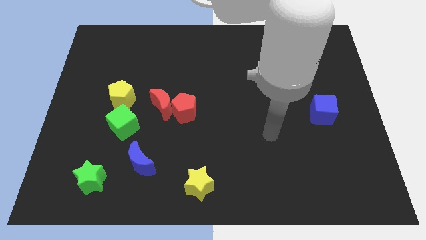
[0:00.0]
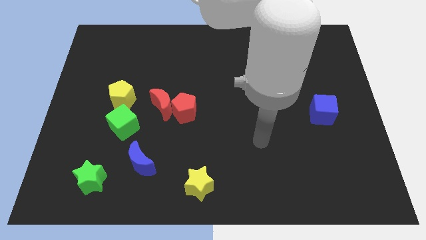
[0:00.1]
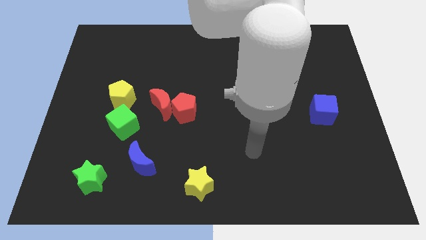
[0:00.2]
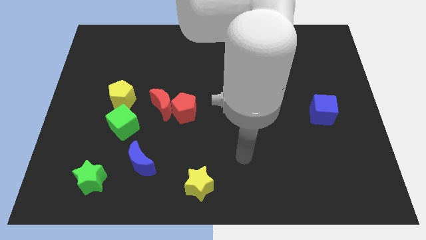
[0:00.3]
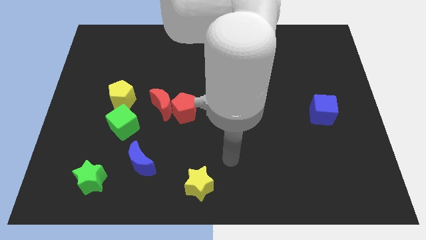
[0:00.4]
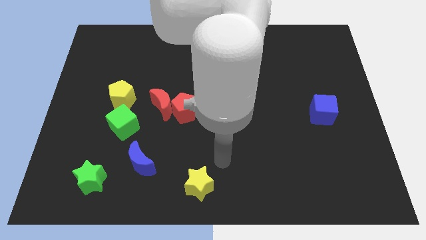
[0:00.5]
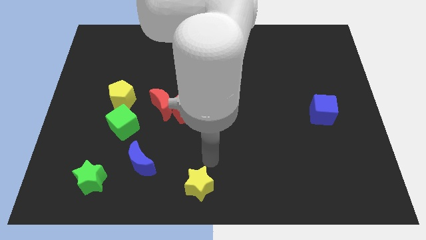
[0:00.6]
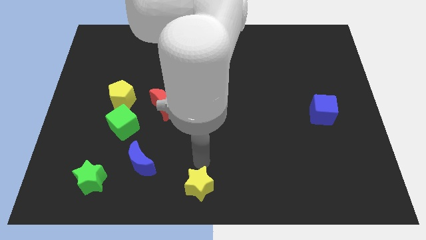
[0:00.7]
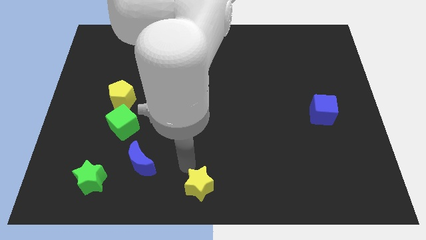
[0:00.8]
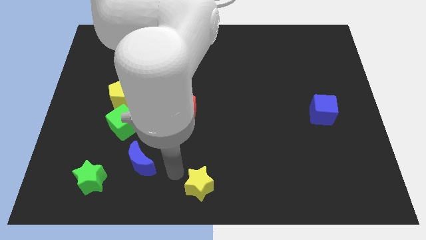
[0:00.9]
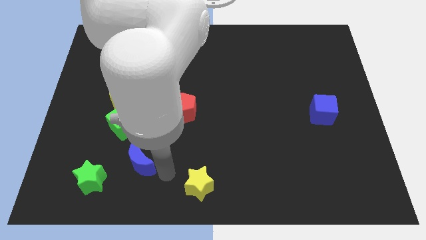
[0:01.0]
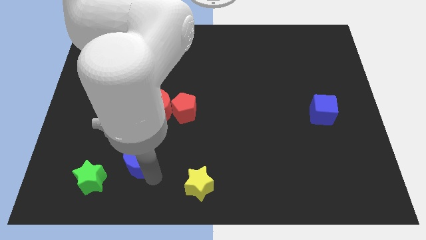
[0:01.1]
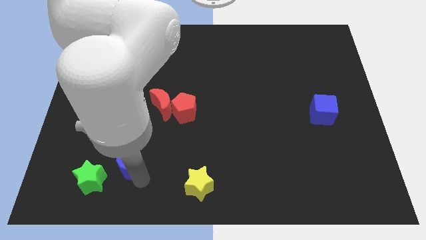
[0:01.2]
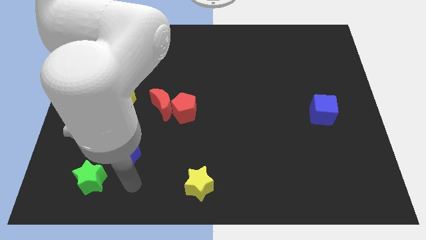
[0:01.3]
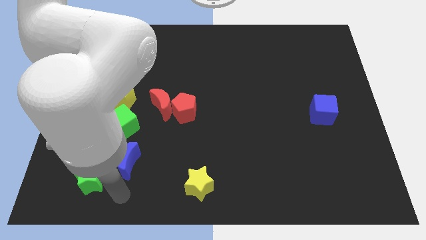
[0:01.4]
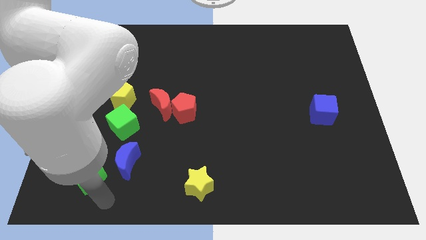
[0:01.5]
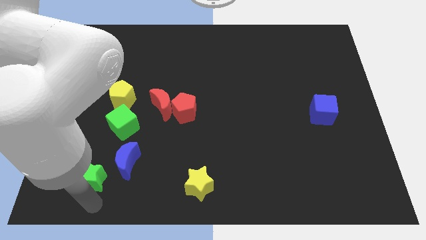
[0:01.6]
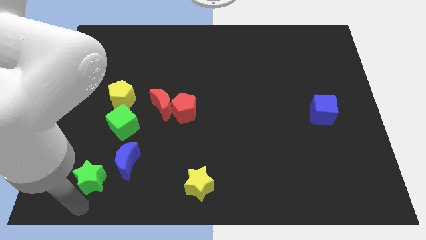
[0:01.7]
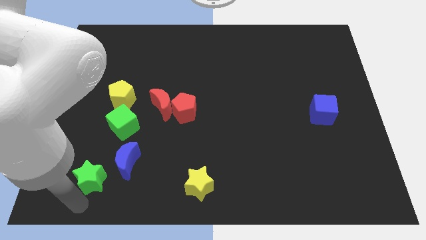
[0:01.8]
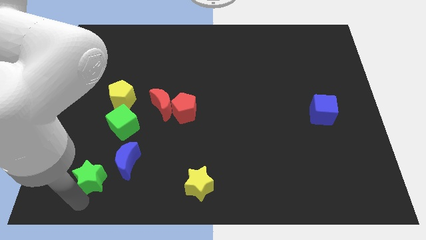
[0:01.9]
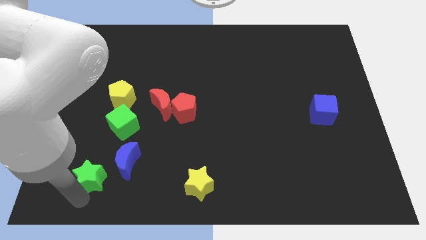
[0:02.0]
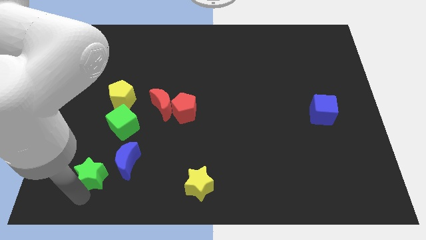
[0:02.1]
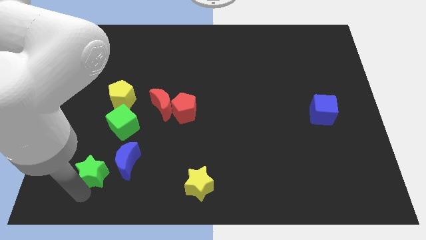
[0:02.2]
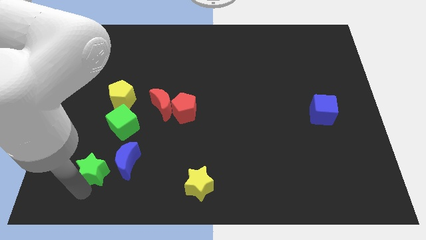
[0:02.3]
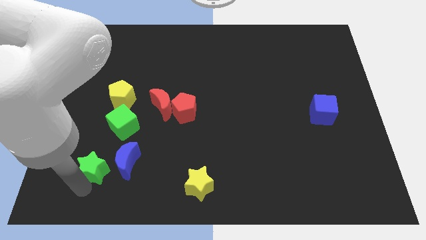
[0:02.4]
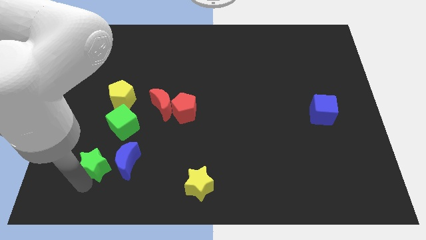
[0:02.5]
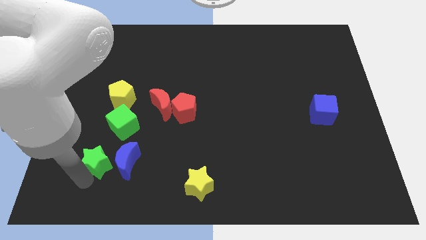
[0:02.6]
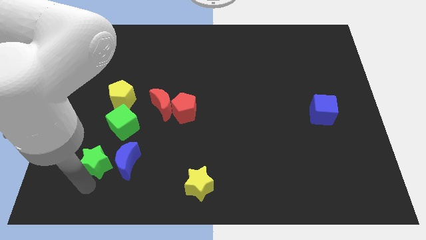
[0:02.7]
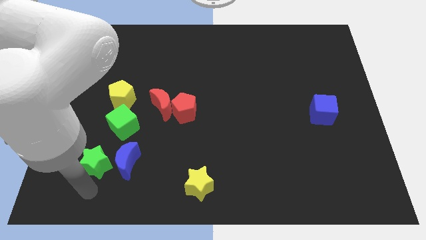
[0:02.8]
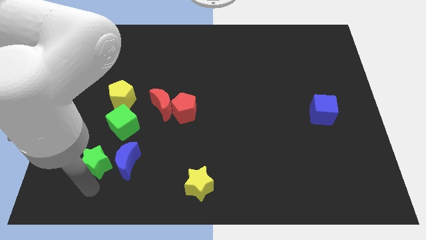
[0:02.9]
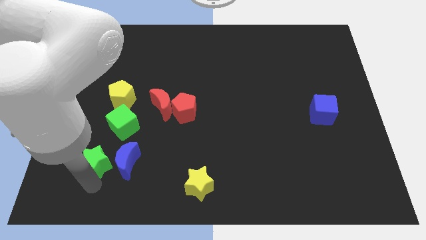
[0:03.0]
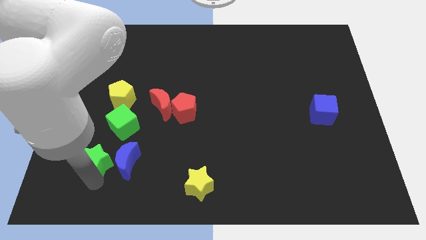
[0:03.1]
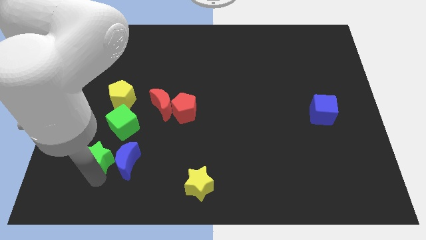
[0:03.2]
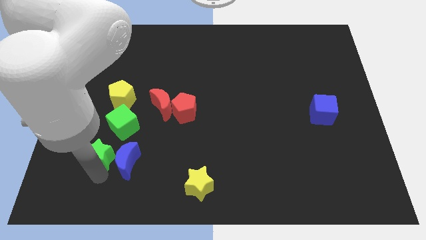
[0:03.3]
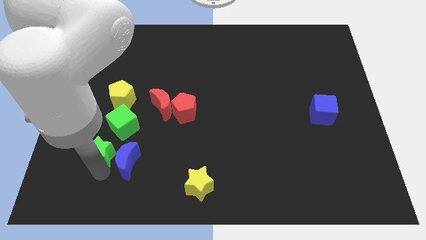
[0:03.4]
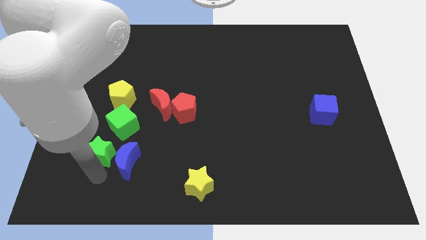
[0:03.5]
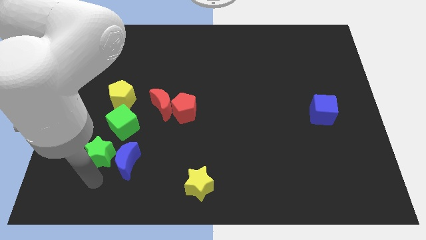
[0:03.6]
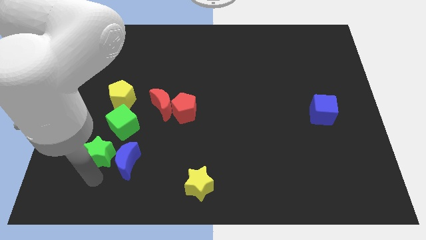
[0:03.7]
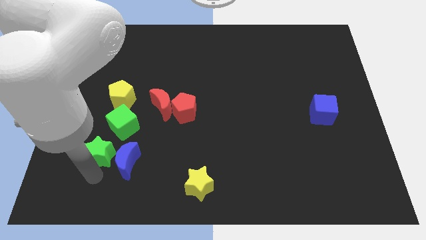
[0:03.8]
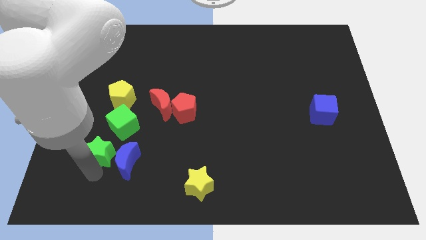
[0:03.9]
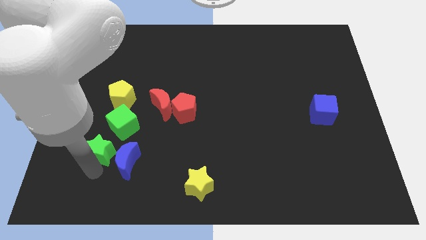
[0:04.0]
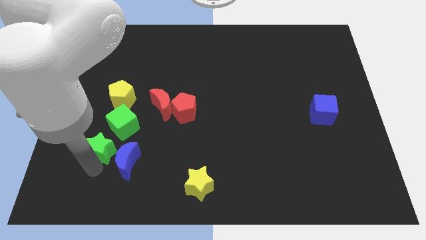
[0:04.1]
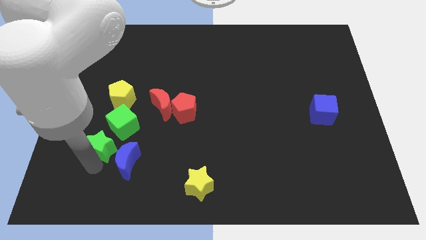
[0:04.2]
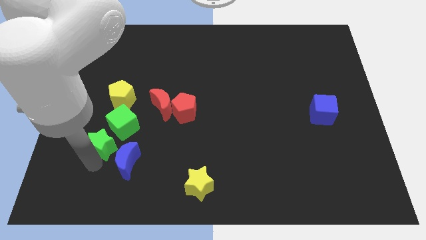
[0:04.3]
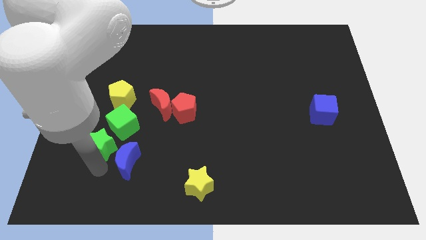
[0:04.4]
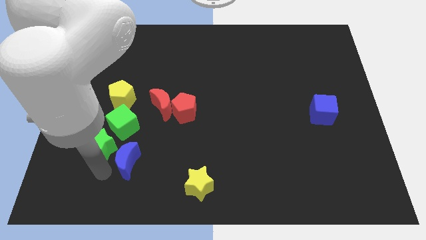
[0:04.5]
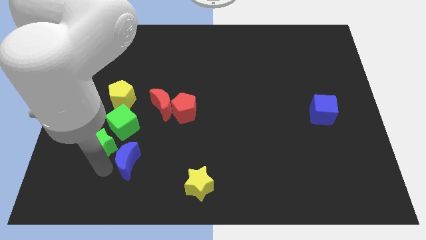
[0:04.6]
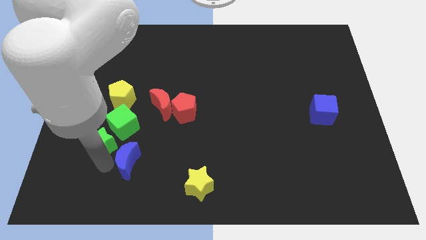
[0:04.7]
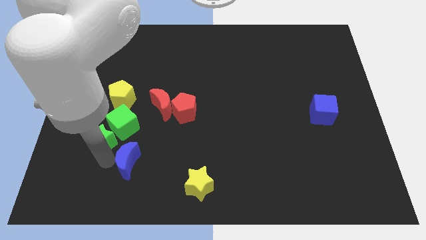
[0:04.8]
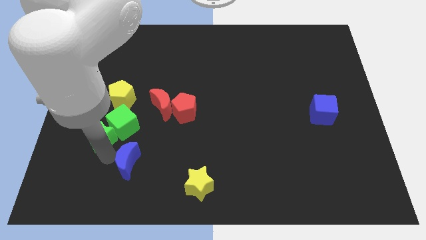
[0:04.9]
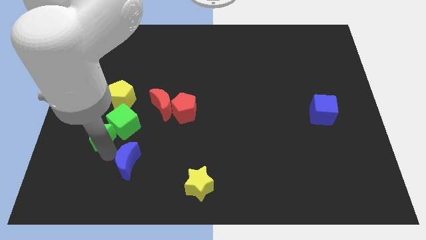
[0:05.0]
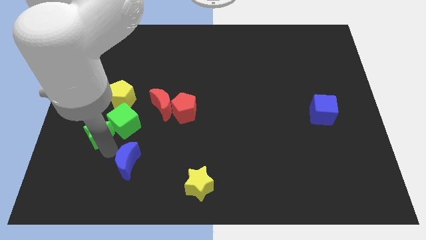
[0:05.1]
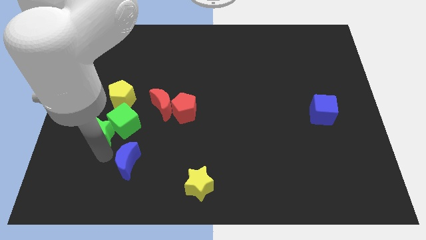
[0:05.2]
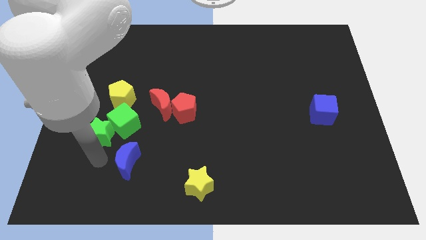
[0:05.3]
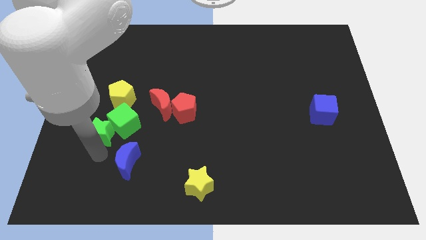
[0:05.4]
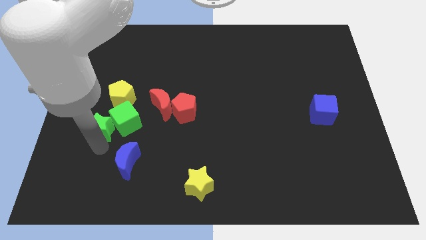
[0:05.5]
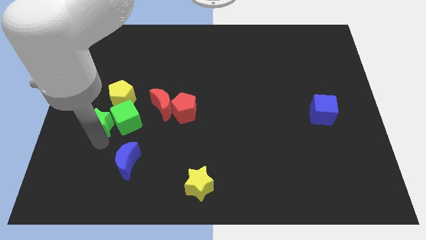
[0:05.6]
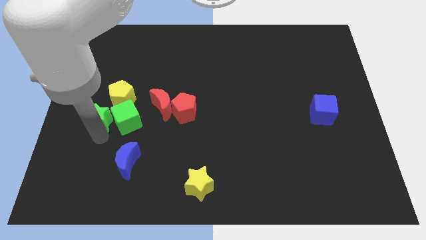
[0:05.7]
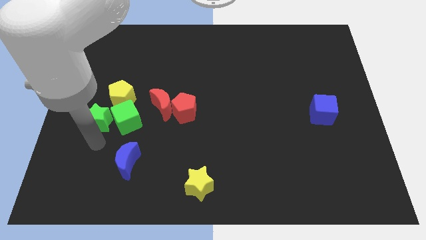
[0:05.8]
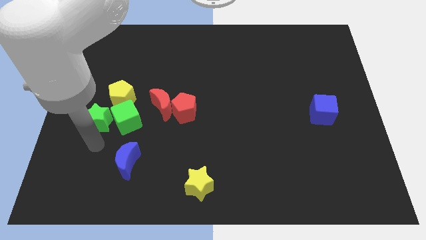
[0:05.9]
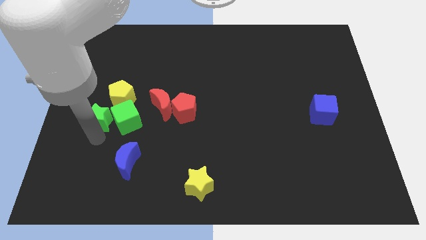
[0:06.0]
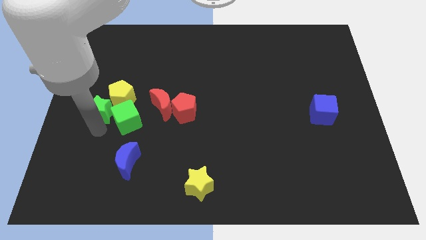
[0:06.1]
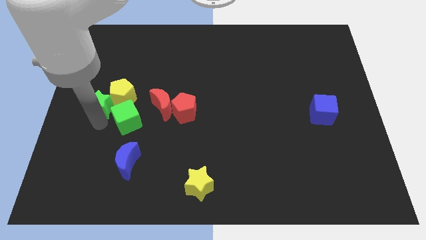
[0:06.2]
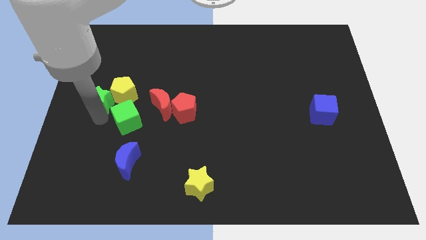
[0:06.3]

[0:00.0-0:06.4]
move the green star upwards

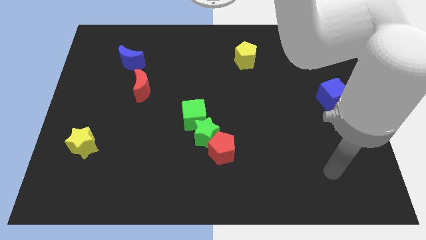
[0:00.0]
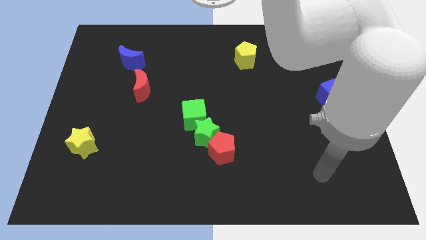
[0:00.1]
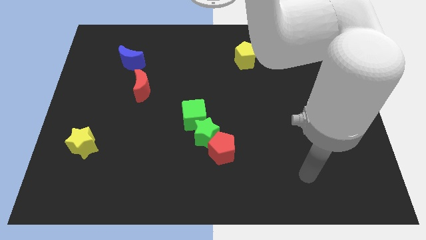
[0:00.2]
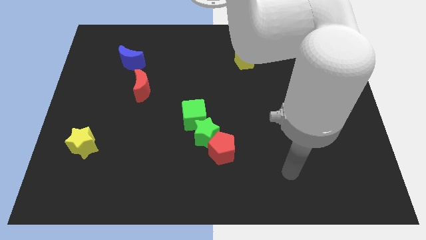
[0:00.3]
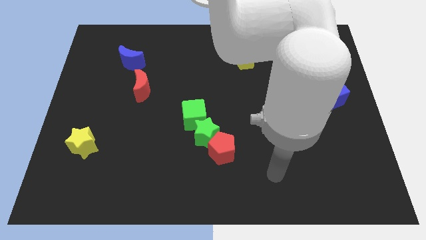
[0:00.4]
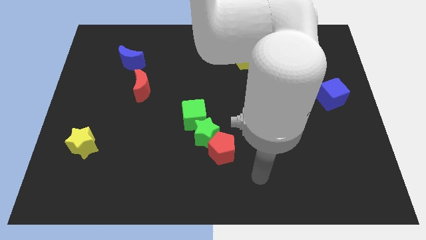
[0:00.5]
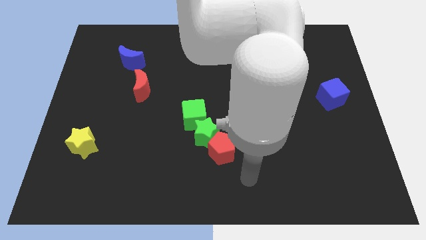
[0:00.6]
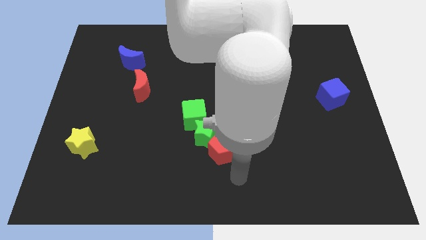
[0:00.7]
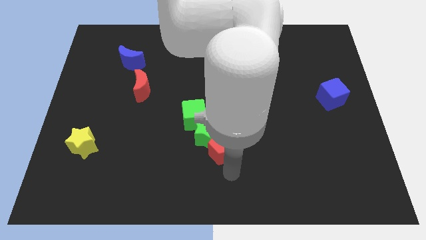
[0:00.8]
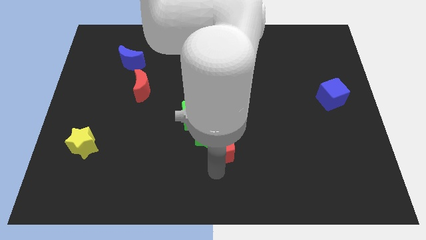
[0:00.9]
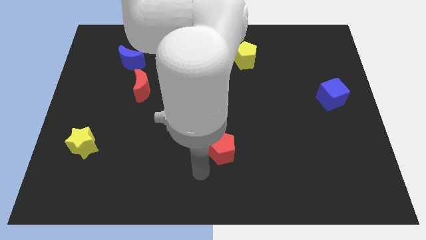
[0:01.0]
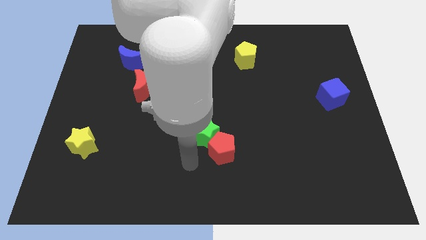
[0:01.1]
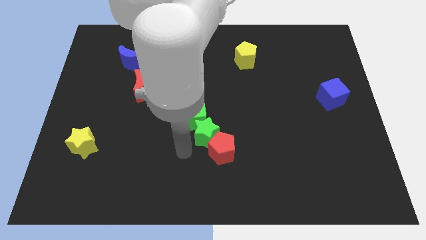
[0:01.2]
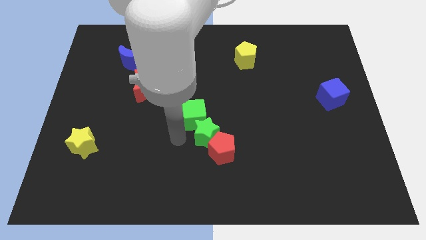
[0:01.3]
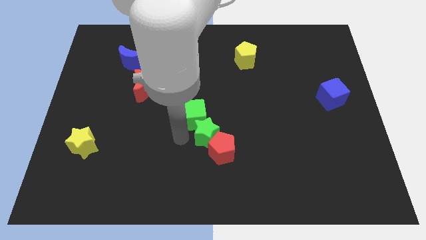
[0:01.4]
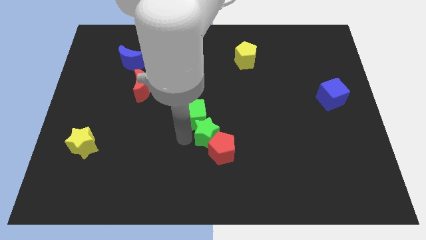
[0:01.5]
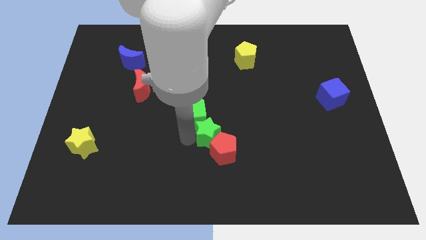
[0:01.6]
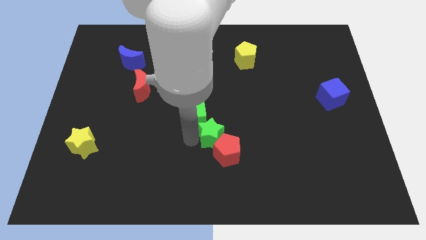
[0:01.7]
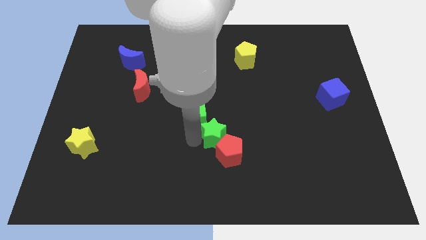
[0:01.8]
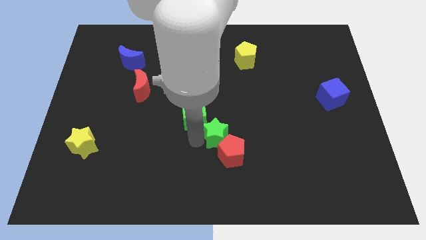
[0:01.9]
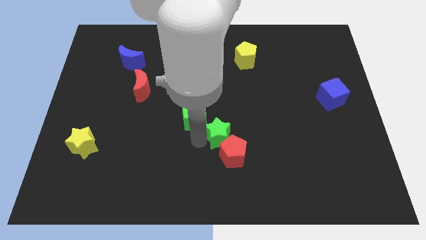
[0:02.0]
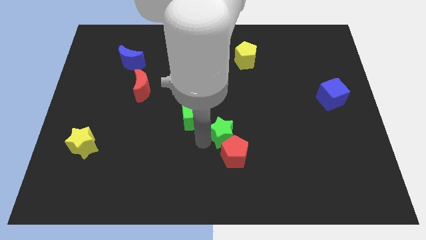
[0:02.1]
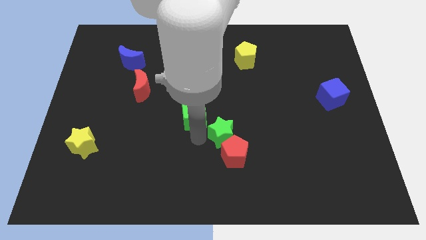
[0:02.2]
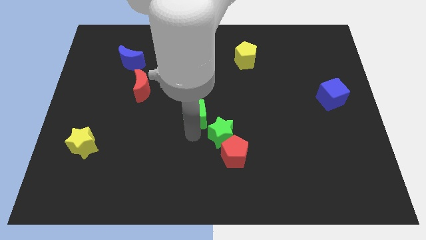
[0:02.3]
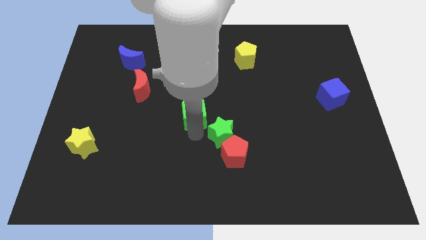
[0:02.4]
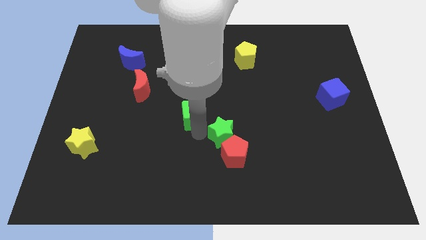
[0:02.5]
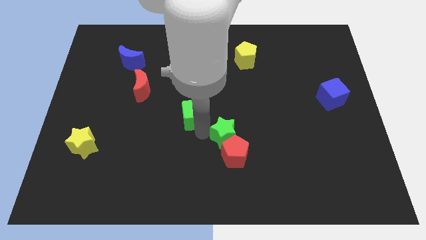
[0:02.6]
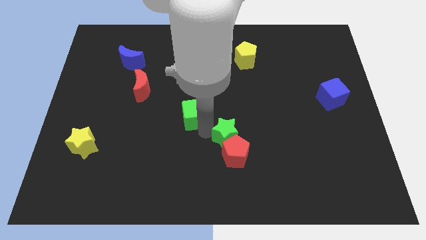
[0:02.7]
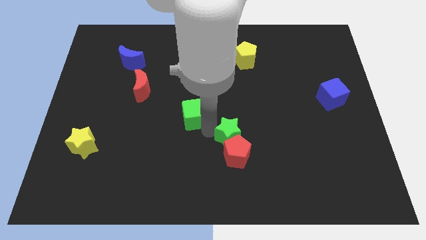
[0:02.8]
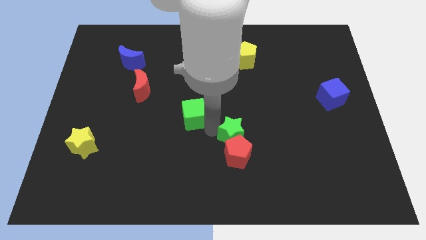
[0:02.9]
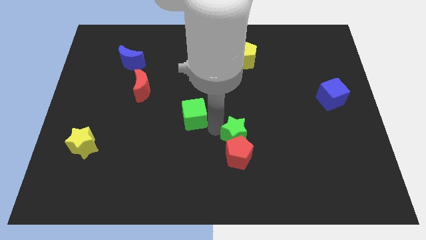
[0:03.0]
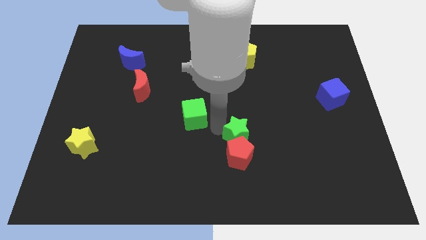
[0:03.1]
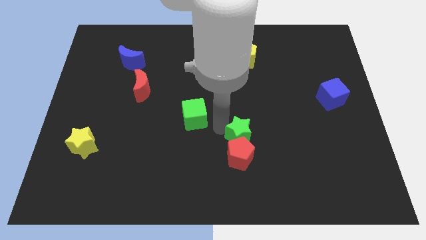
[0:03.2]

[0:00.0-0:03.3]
push the green star to the right a bit
